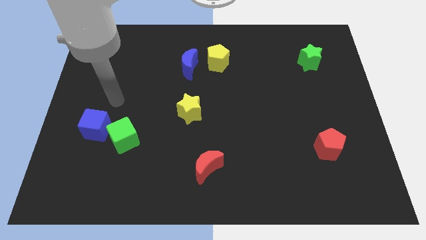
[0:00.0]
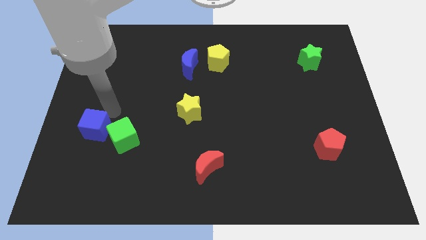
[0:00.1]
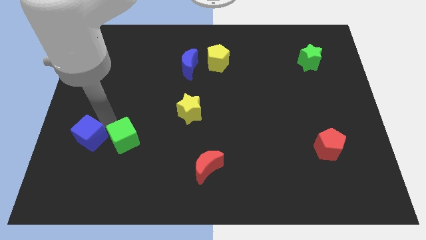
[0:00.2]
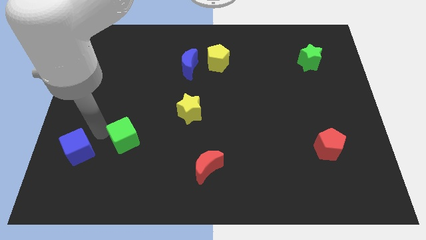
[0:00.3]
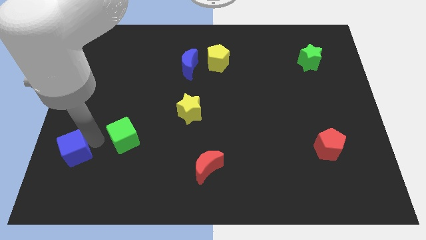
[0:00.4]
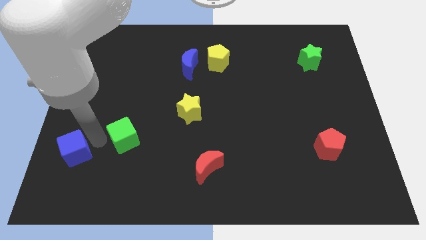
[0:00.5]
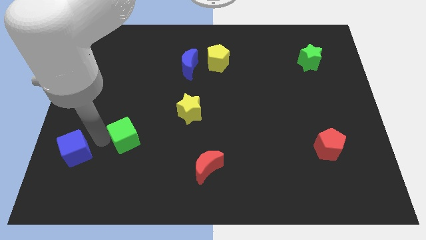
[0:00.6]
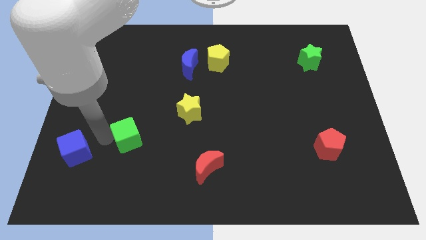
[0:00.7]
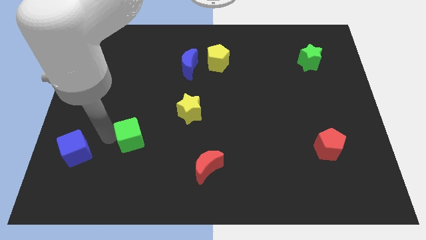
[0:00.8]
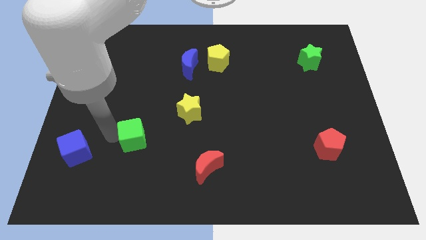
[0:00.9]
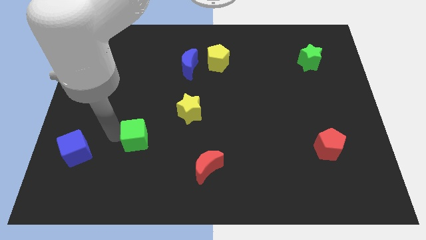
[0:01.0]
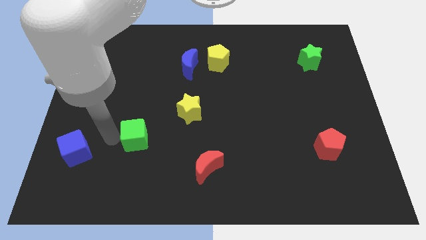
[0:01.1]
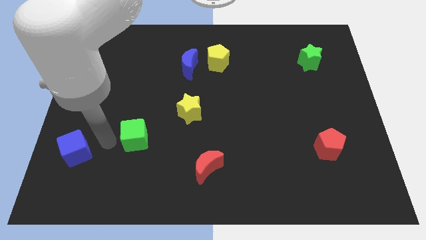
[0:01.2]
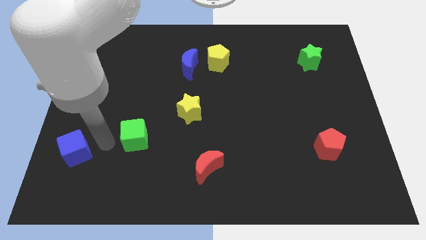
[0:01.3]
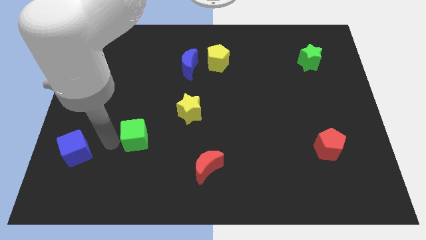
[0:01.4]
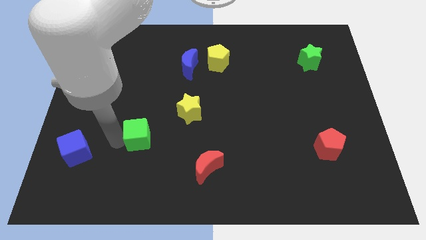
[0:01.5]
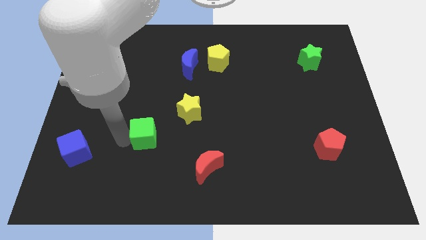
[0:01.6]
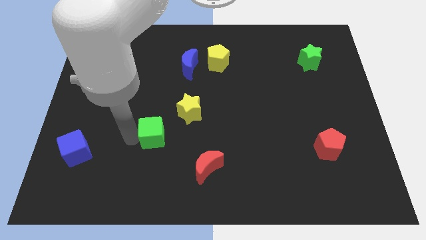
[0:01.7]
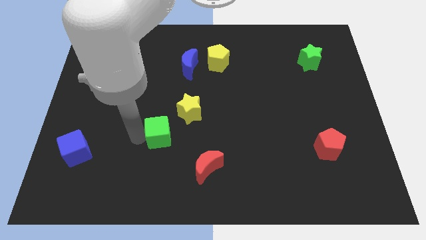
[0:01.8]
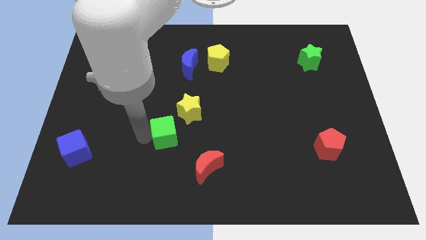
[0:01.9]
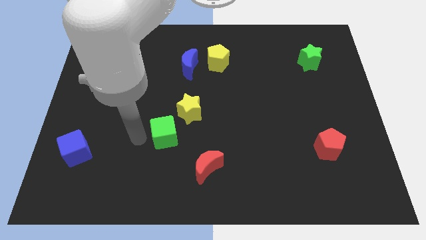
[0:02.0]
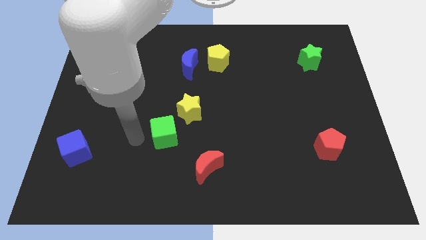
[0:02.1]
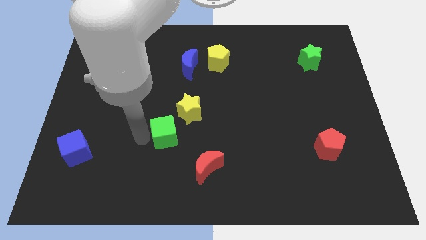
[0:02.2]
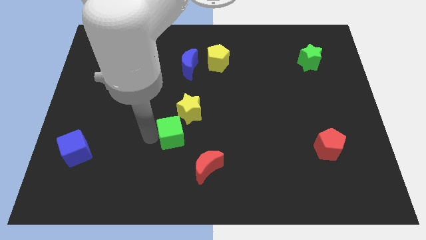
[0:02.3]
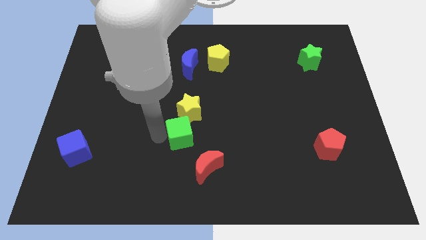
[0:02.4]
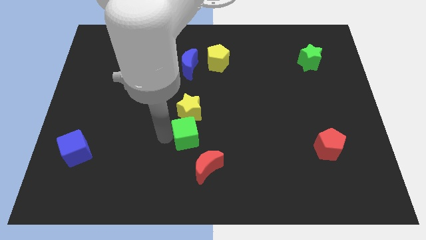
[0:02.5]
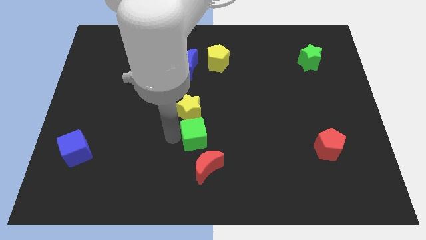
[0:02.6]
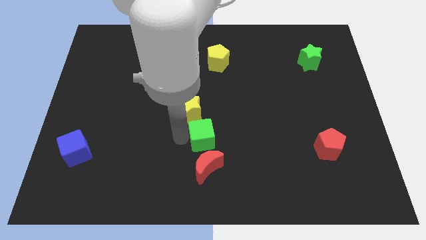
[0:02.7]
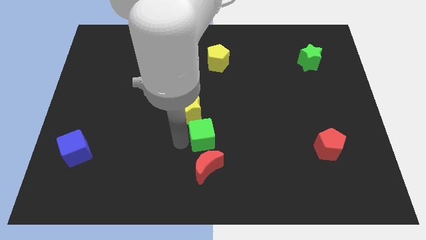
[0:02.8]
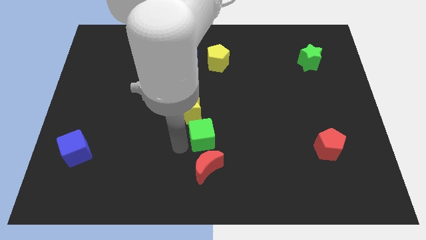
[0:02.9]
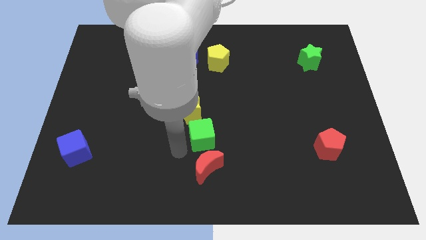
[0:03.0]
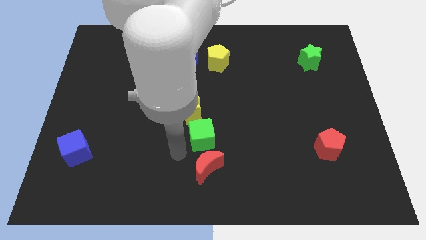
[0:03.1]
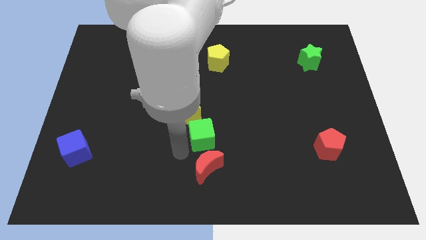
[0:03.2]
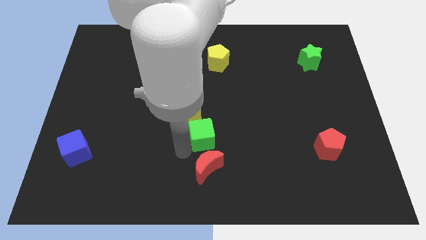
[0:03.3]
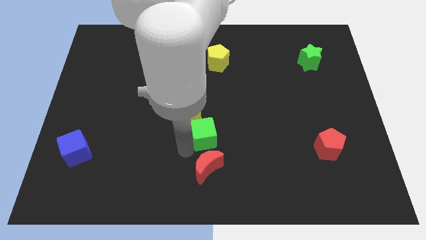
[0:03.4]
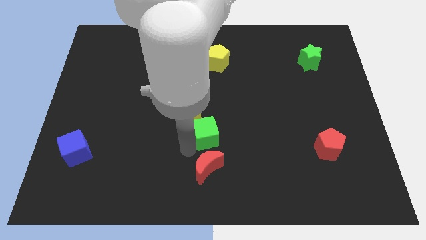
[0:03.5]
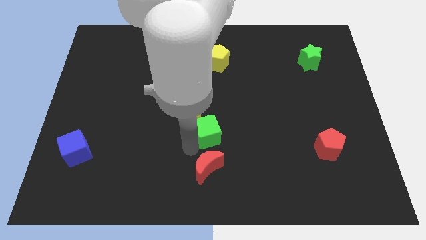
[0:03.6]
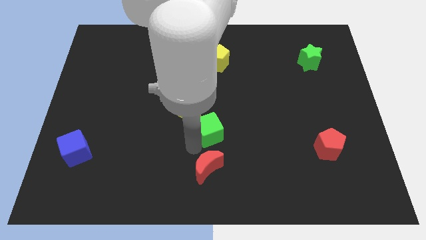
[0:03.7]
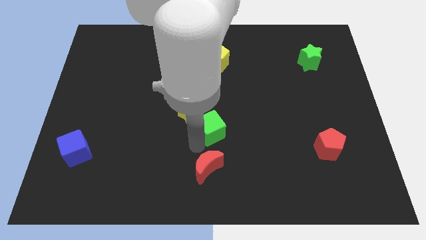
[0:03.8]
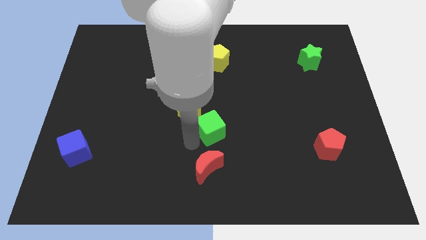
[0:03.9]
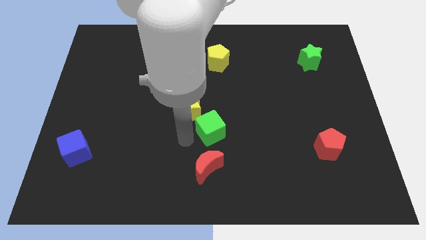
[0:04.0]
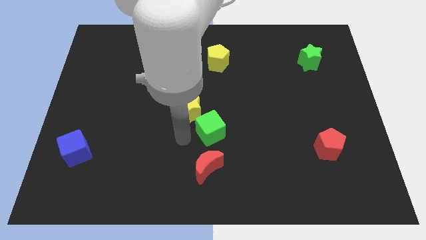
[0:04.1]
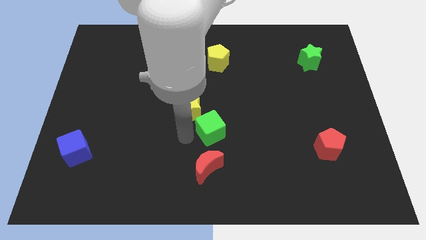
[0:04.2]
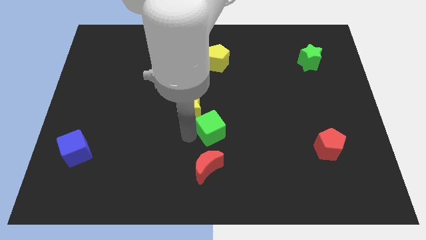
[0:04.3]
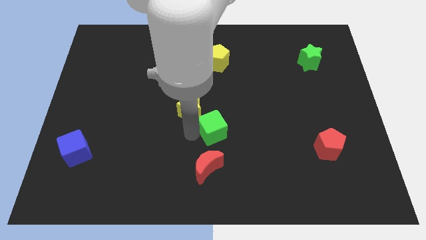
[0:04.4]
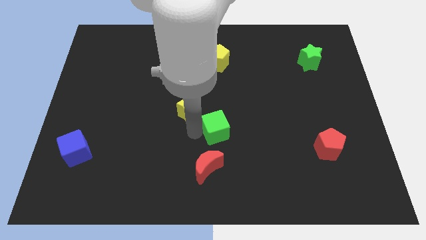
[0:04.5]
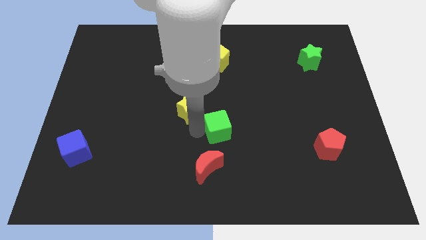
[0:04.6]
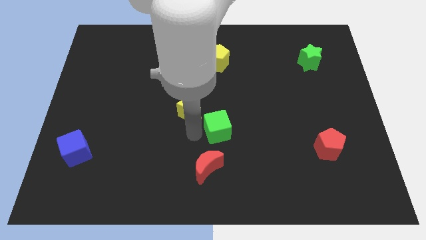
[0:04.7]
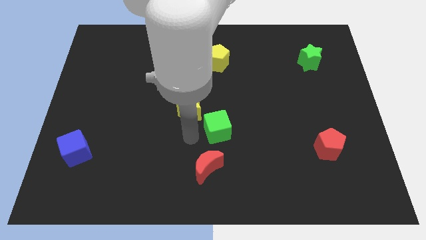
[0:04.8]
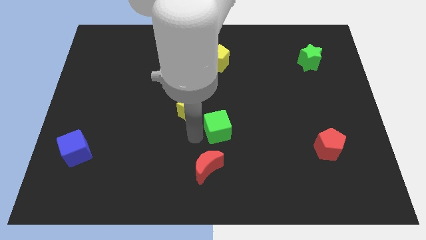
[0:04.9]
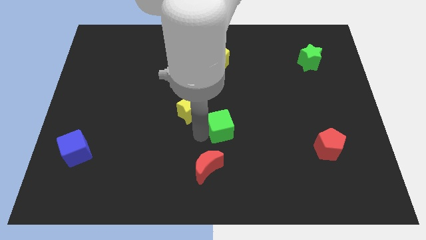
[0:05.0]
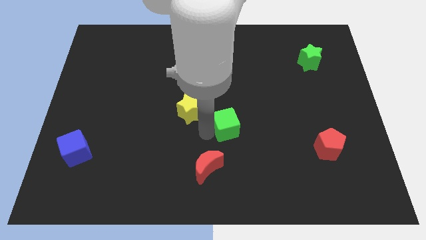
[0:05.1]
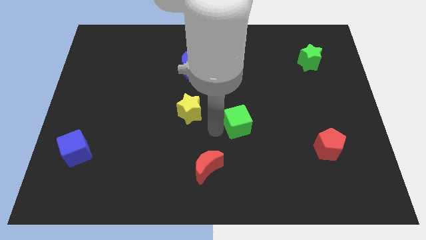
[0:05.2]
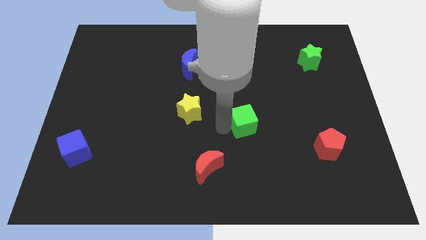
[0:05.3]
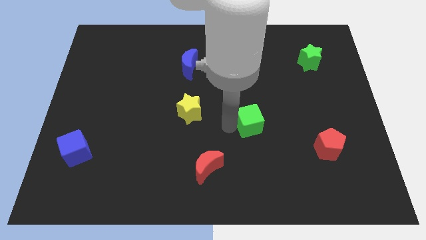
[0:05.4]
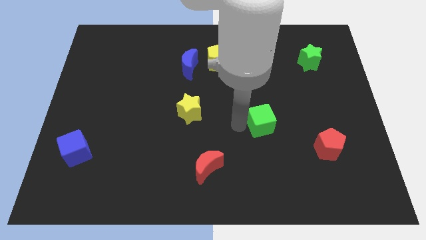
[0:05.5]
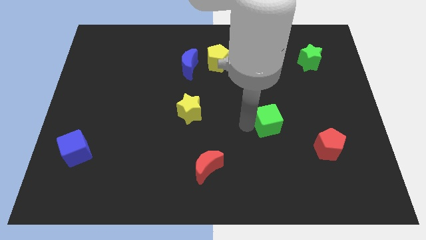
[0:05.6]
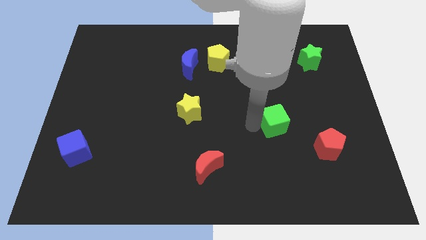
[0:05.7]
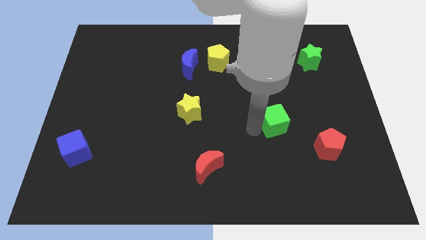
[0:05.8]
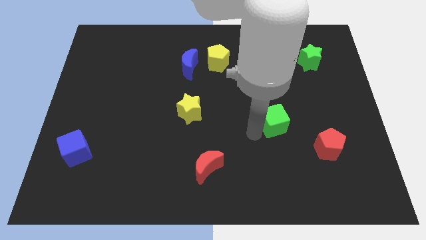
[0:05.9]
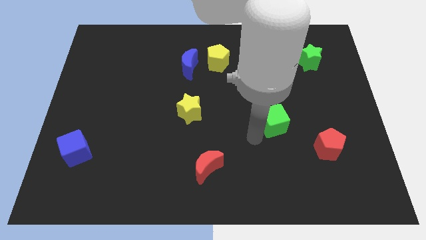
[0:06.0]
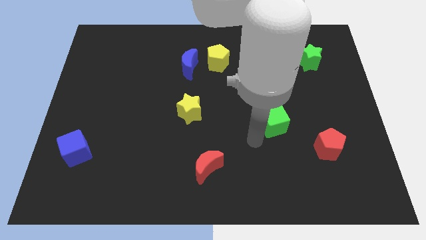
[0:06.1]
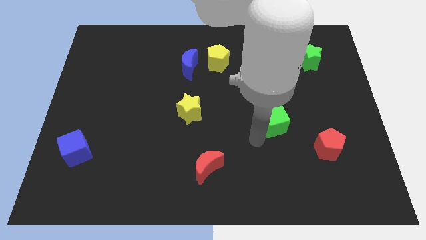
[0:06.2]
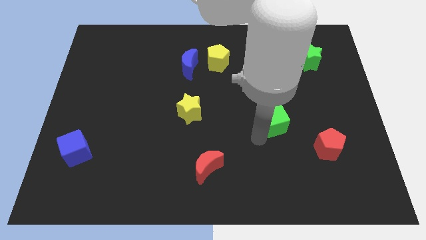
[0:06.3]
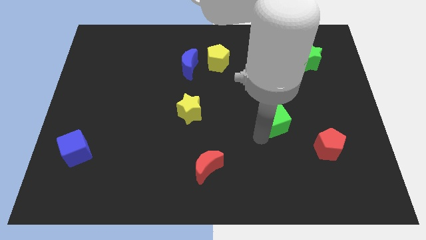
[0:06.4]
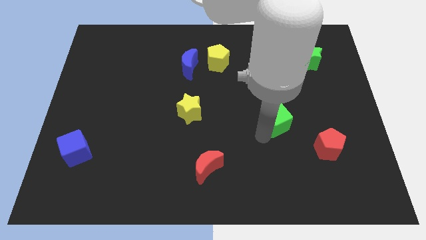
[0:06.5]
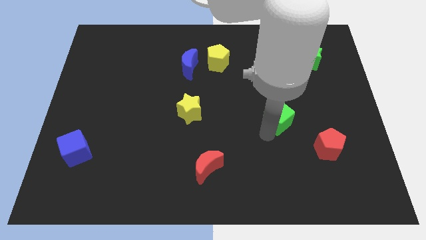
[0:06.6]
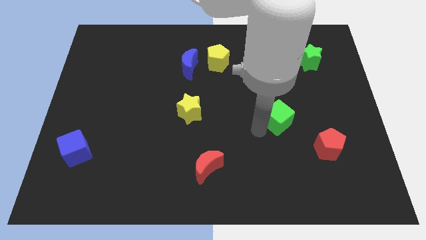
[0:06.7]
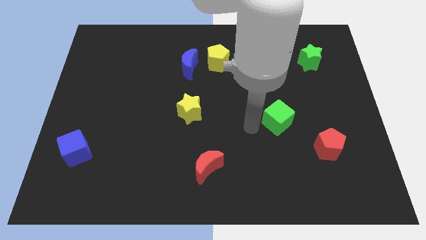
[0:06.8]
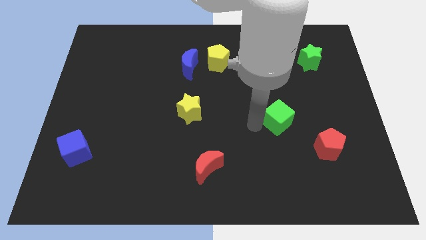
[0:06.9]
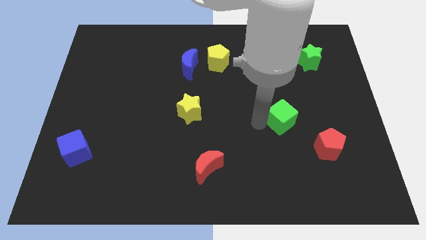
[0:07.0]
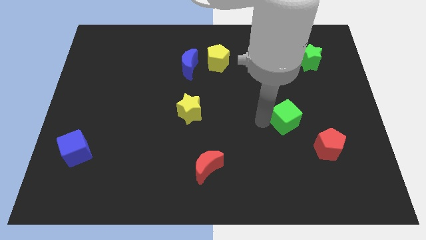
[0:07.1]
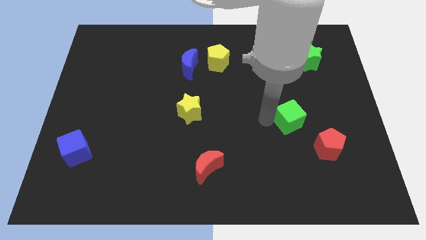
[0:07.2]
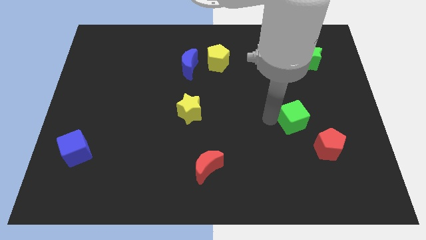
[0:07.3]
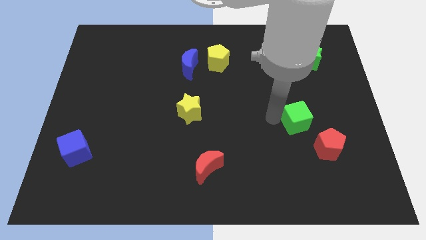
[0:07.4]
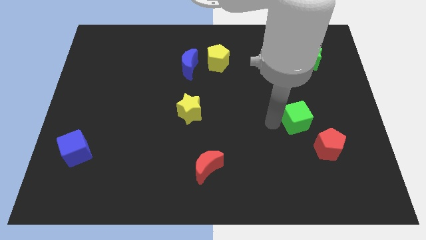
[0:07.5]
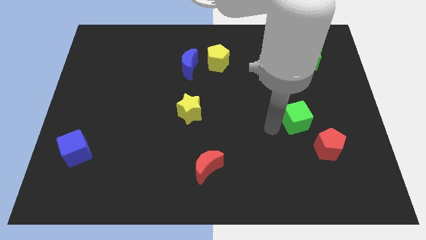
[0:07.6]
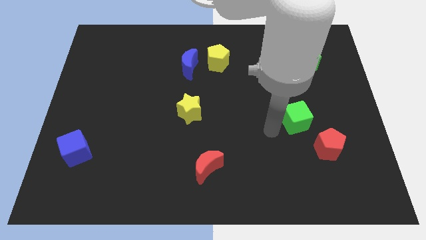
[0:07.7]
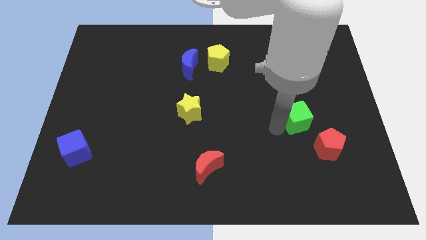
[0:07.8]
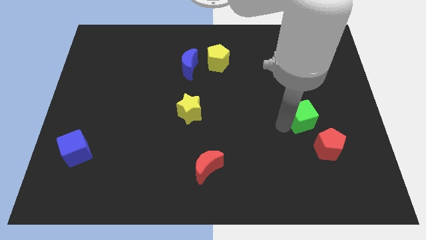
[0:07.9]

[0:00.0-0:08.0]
put the green cube above the red pentagon
